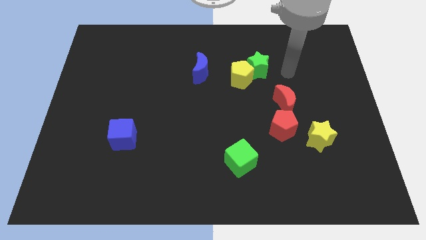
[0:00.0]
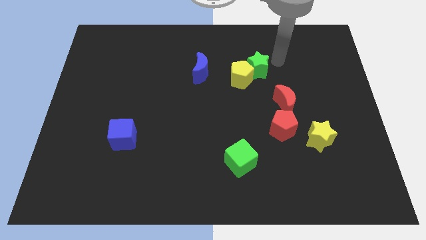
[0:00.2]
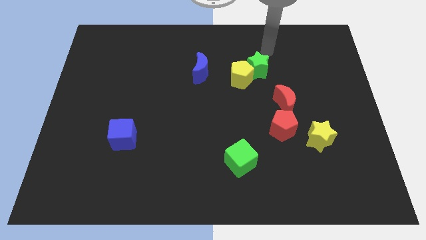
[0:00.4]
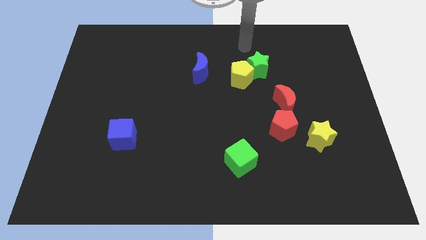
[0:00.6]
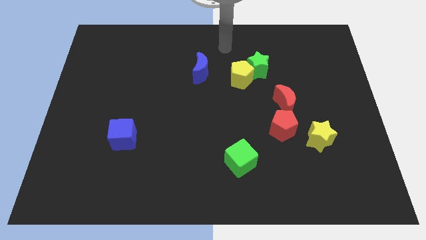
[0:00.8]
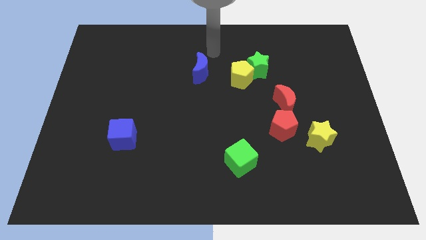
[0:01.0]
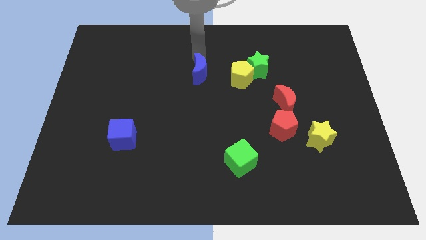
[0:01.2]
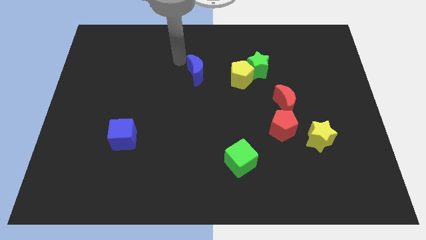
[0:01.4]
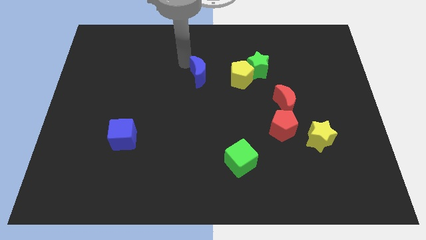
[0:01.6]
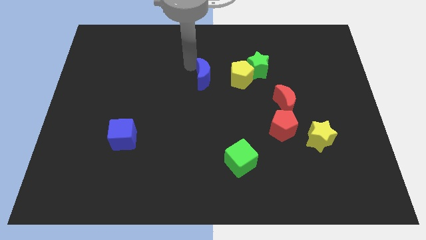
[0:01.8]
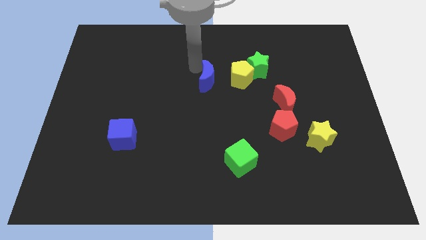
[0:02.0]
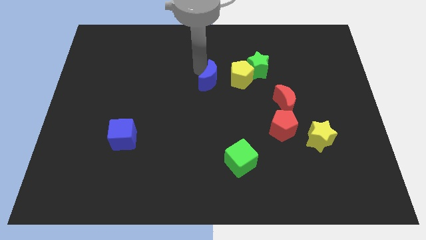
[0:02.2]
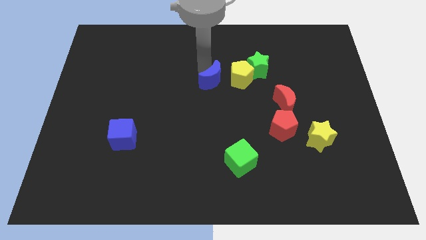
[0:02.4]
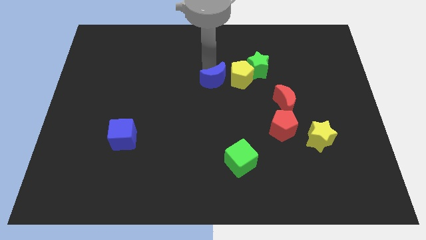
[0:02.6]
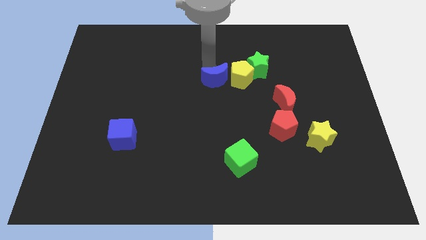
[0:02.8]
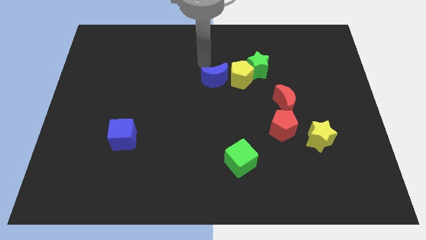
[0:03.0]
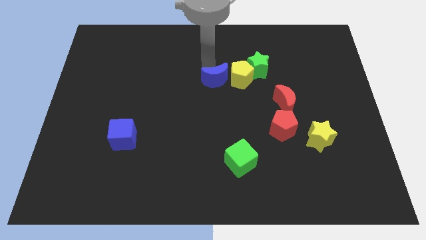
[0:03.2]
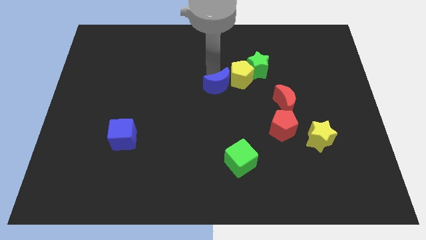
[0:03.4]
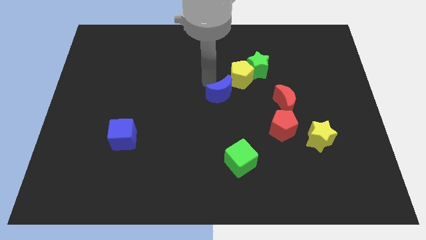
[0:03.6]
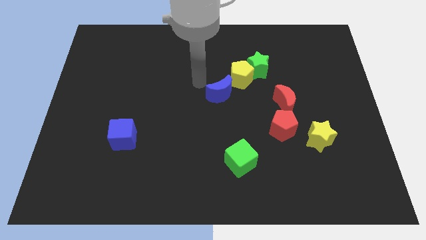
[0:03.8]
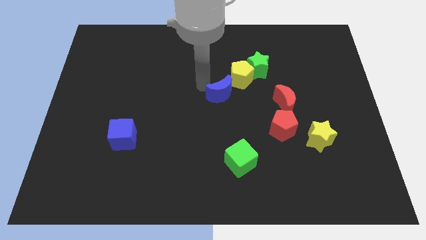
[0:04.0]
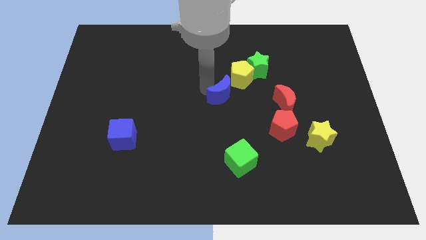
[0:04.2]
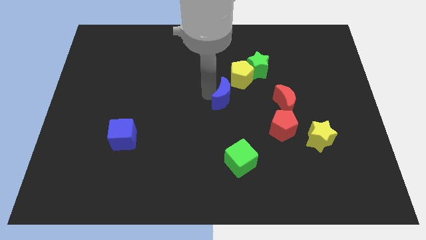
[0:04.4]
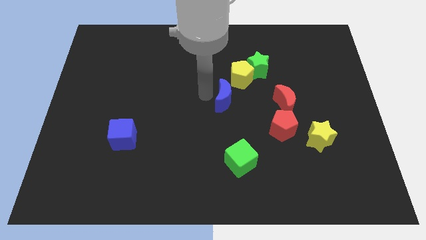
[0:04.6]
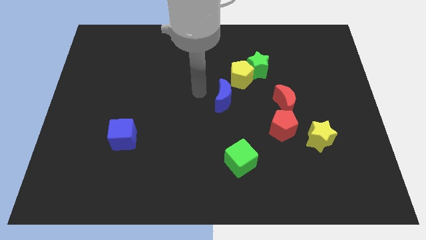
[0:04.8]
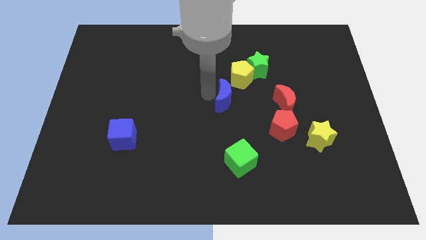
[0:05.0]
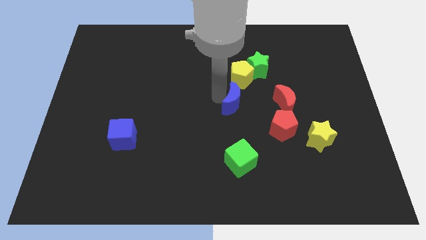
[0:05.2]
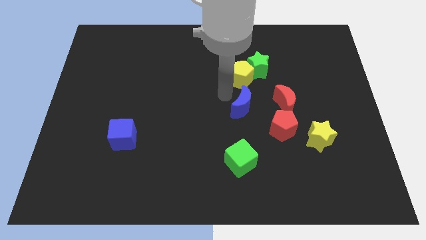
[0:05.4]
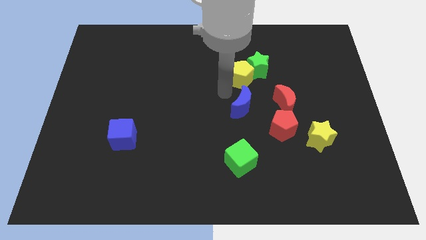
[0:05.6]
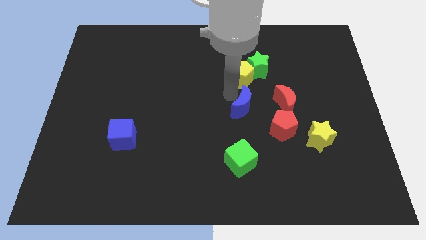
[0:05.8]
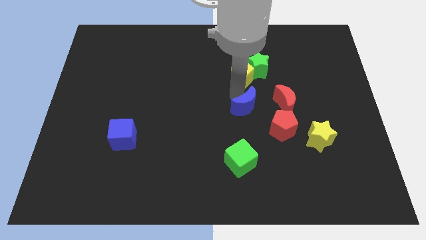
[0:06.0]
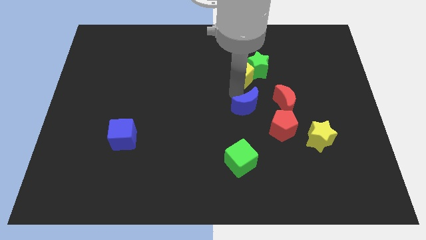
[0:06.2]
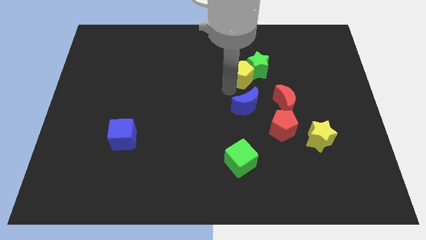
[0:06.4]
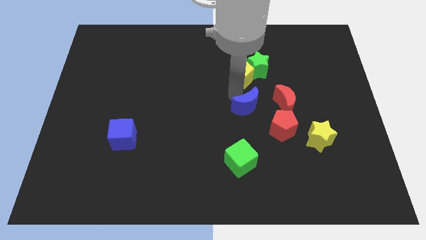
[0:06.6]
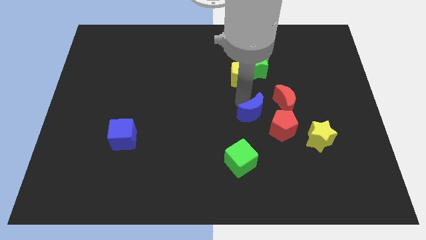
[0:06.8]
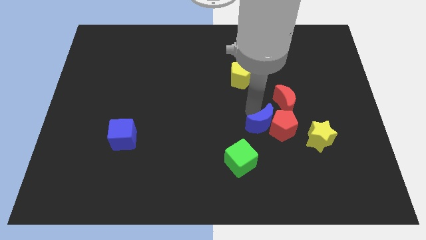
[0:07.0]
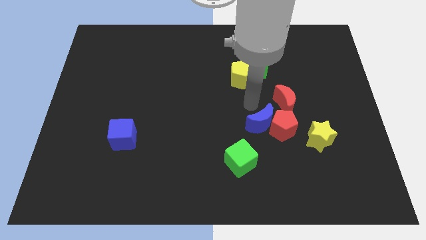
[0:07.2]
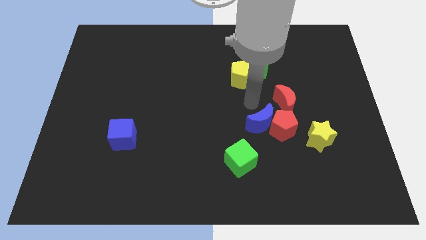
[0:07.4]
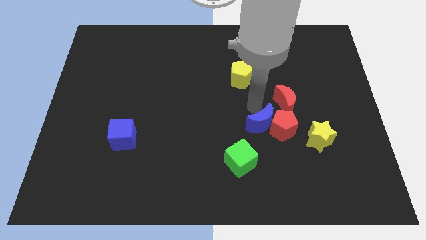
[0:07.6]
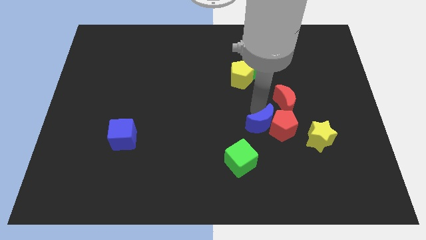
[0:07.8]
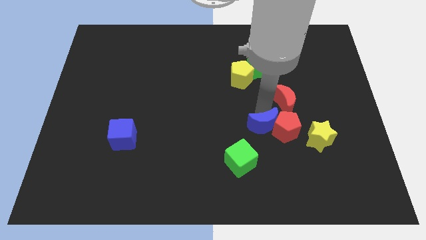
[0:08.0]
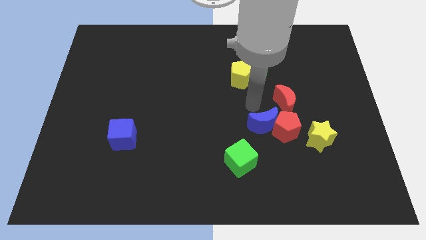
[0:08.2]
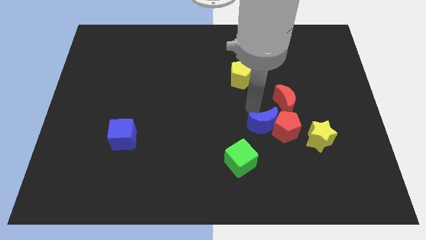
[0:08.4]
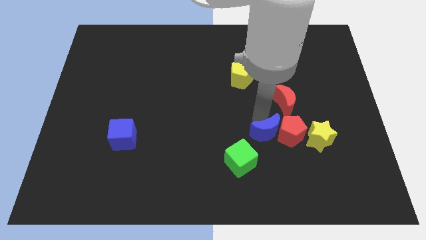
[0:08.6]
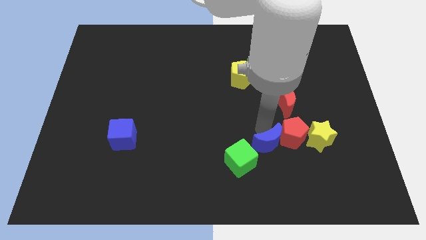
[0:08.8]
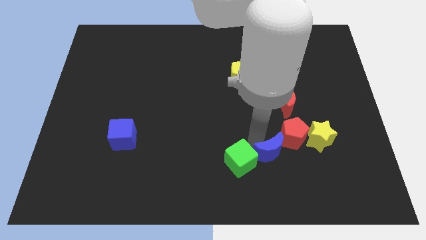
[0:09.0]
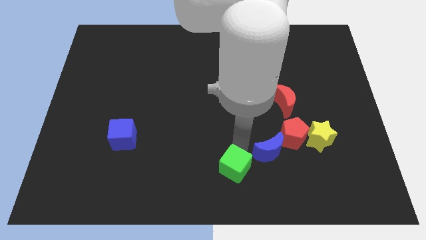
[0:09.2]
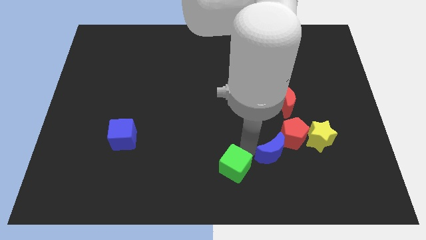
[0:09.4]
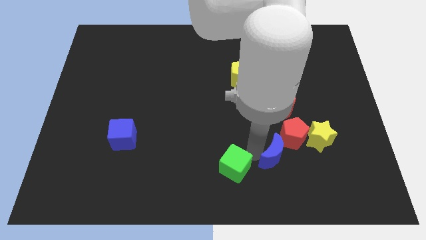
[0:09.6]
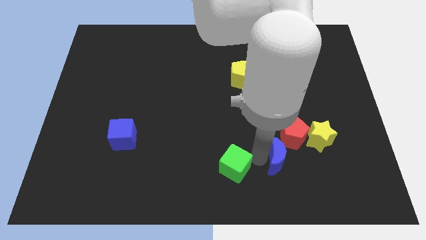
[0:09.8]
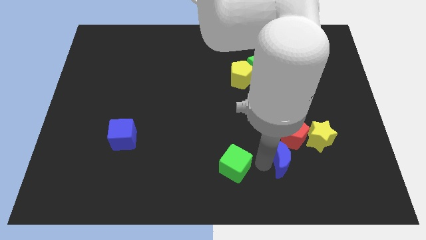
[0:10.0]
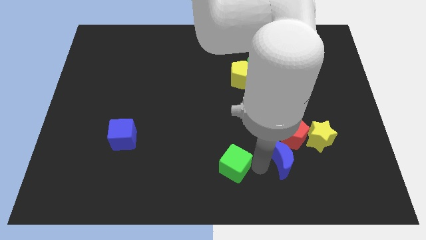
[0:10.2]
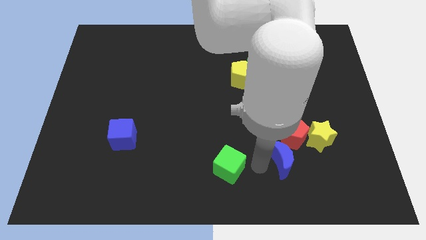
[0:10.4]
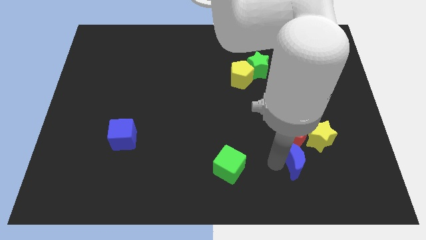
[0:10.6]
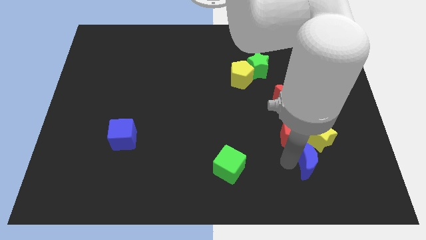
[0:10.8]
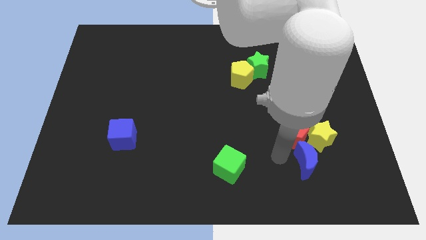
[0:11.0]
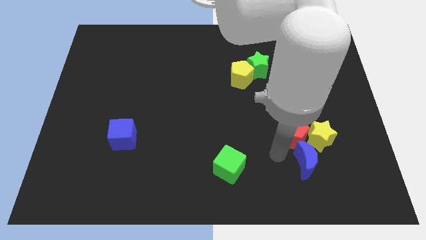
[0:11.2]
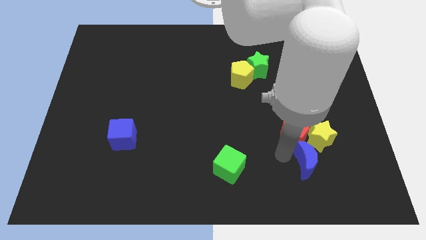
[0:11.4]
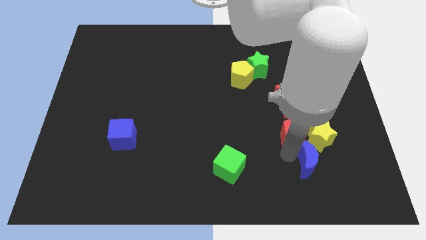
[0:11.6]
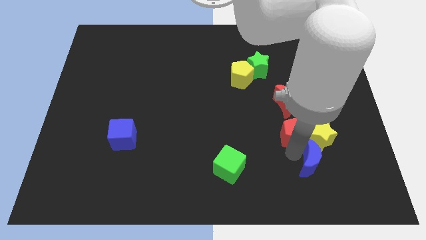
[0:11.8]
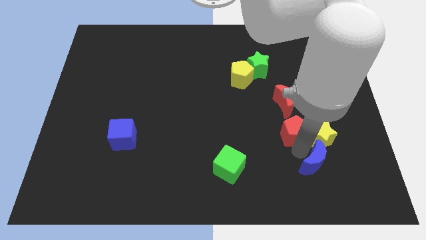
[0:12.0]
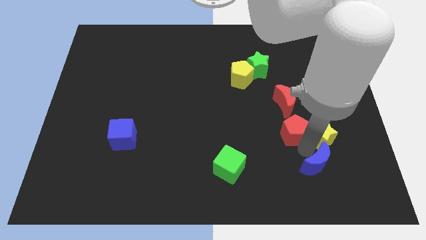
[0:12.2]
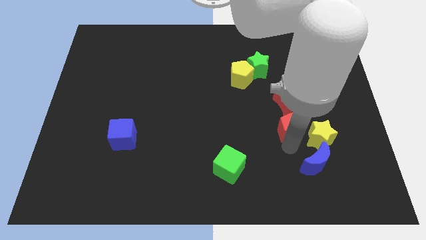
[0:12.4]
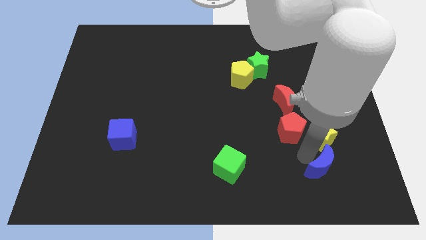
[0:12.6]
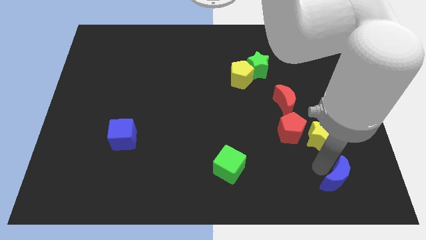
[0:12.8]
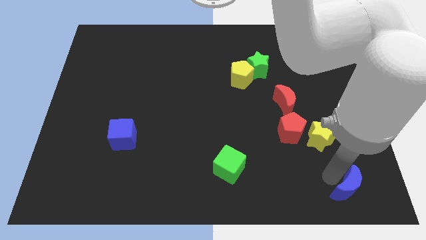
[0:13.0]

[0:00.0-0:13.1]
push the blue moon to the bottom right corner

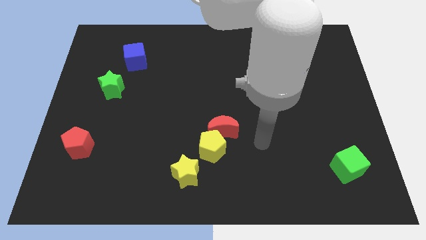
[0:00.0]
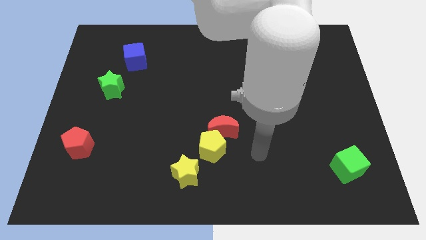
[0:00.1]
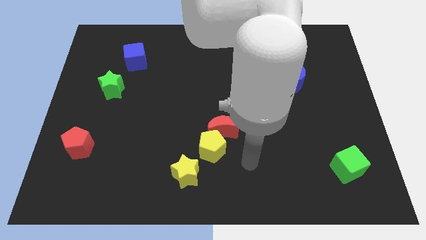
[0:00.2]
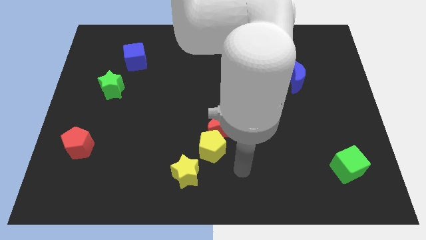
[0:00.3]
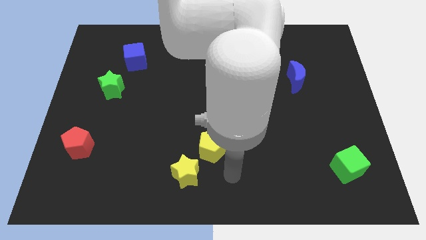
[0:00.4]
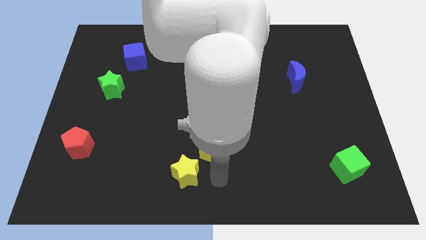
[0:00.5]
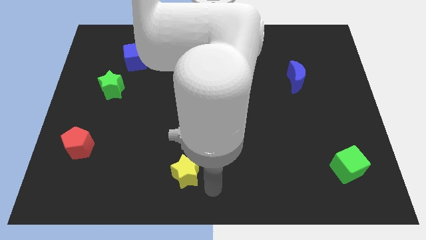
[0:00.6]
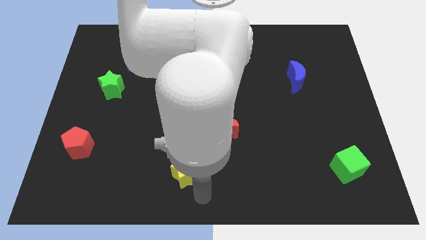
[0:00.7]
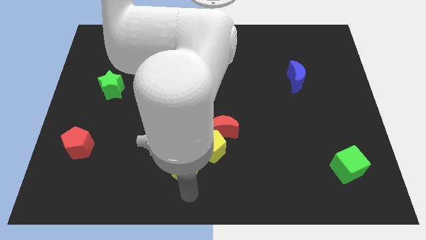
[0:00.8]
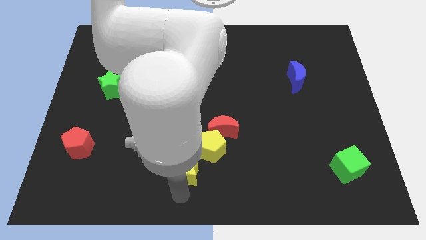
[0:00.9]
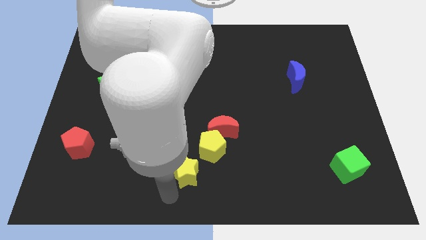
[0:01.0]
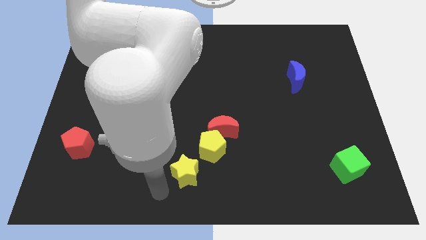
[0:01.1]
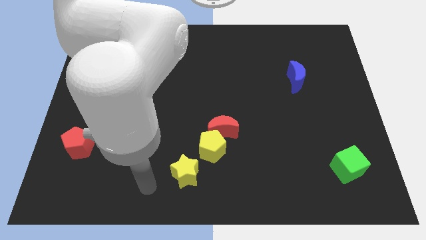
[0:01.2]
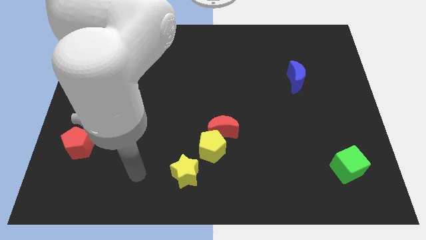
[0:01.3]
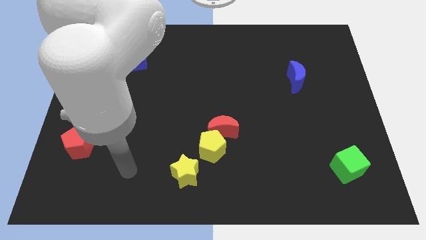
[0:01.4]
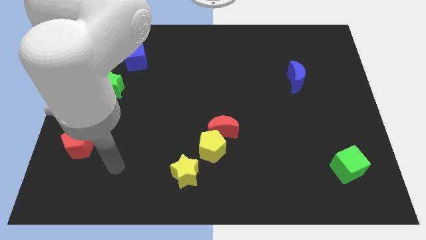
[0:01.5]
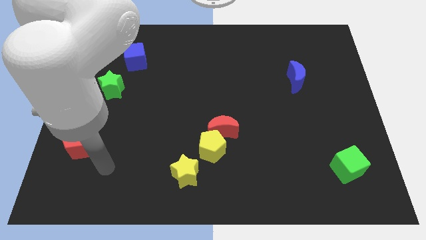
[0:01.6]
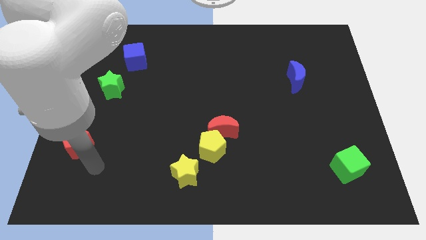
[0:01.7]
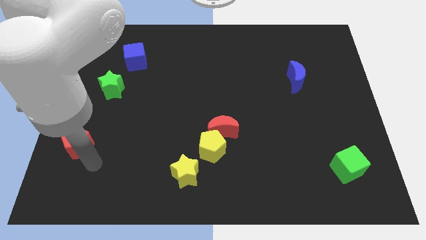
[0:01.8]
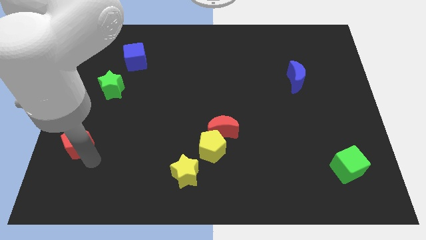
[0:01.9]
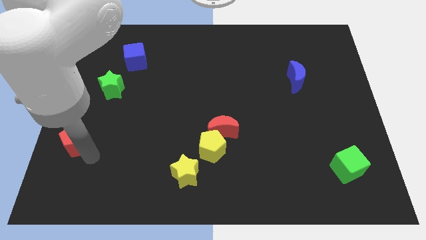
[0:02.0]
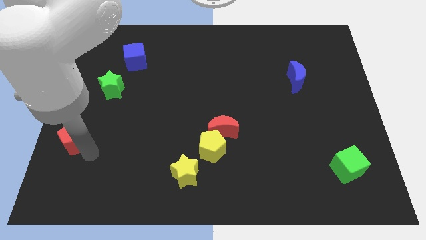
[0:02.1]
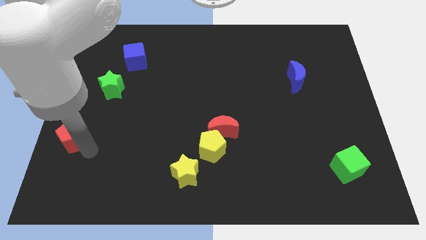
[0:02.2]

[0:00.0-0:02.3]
slide the red pentagon to the left side
